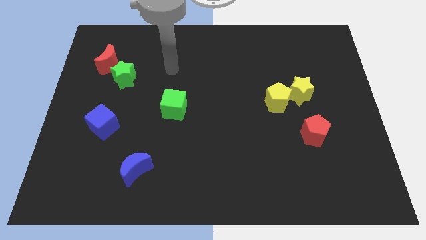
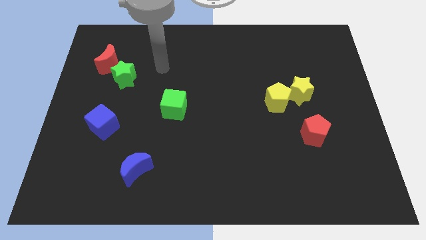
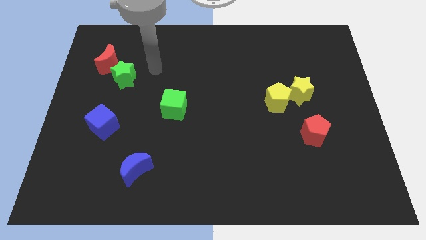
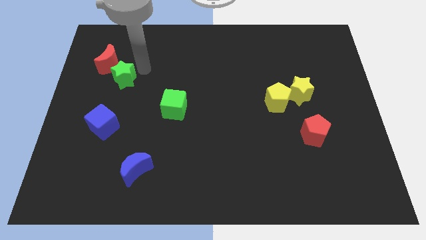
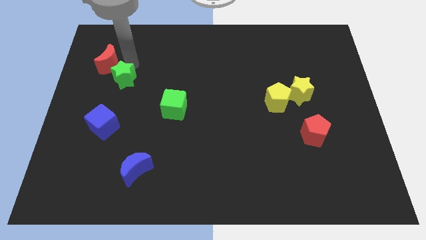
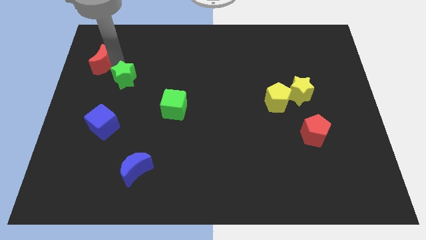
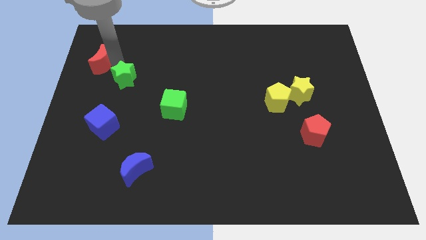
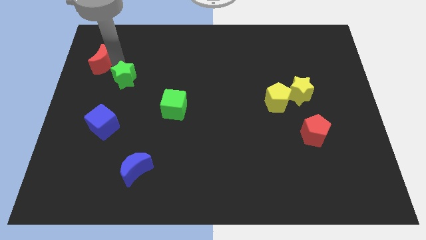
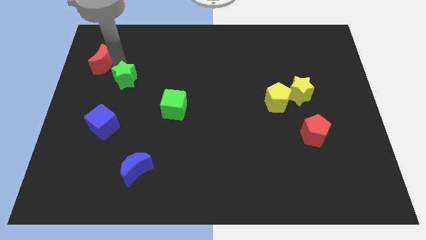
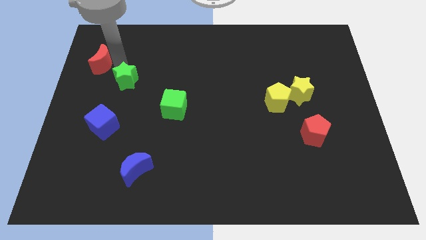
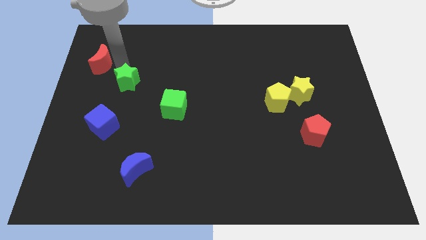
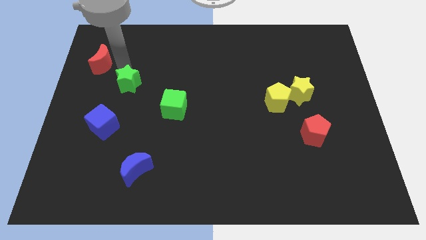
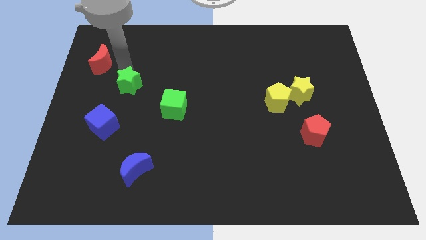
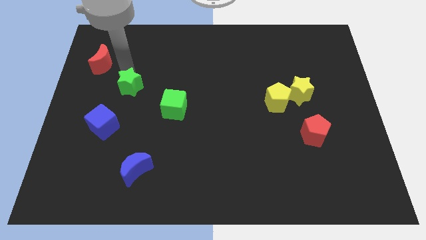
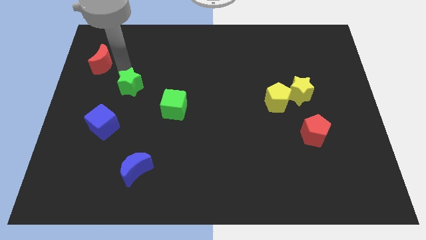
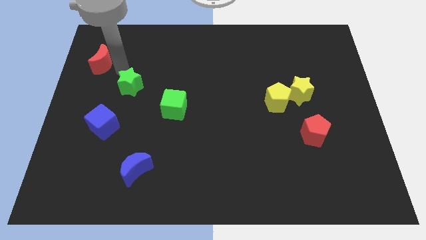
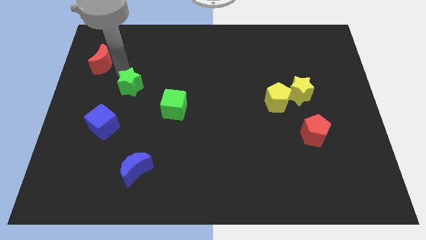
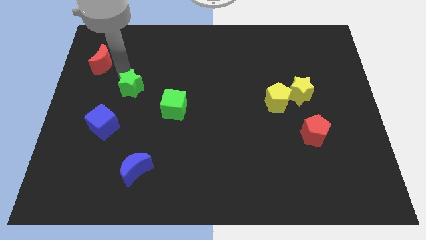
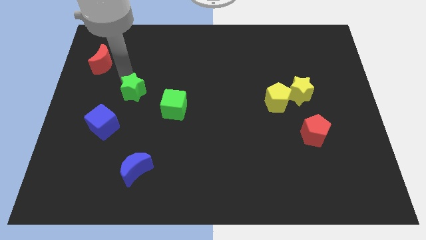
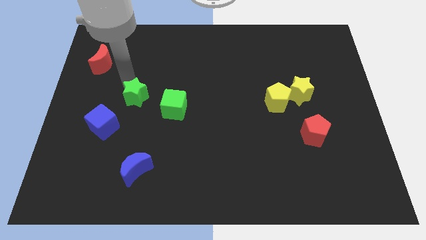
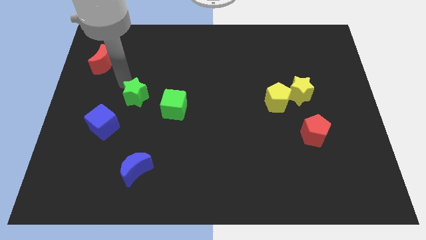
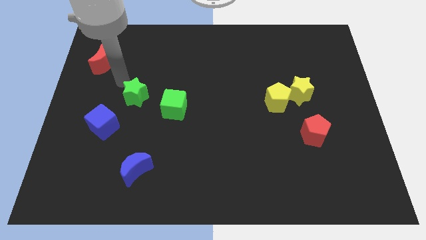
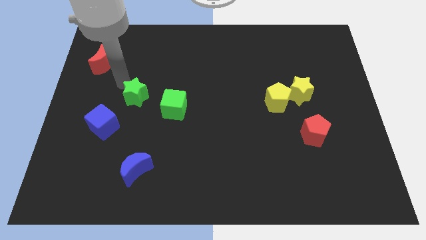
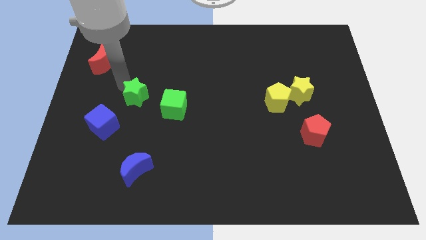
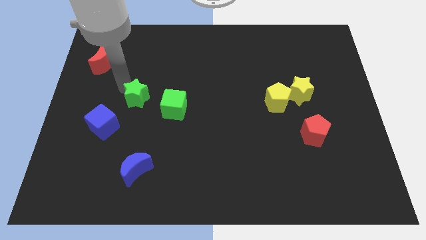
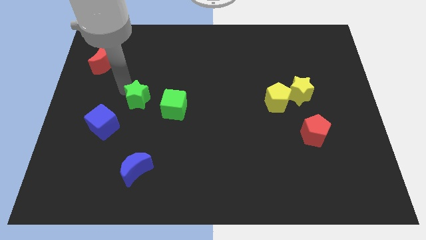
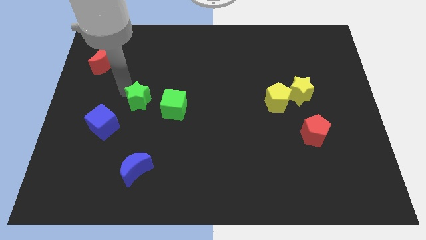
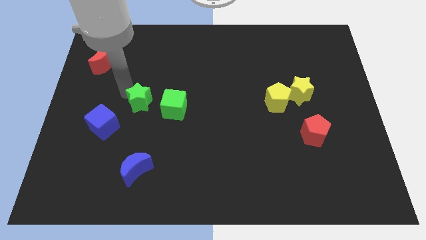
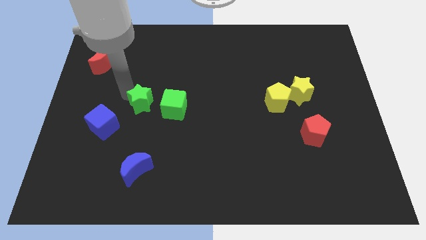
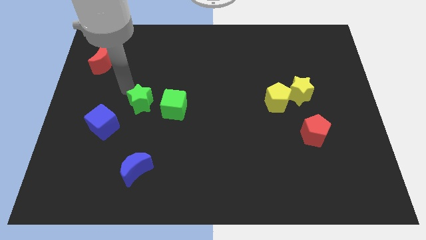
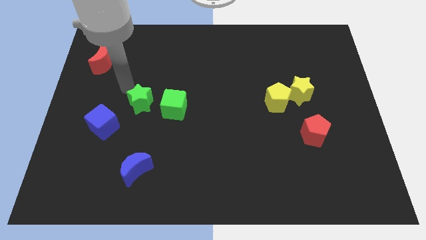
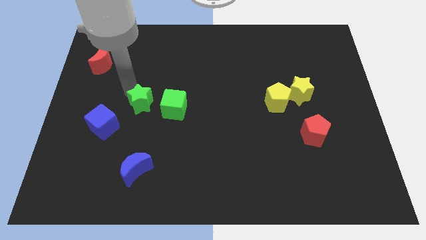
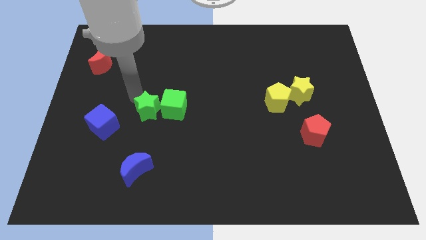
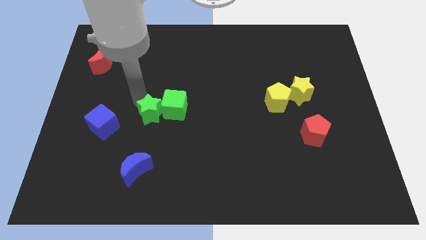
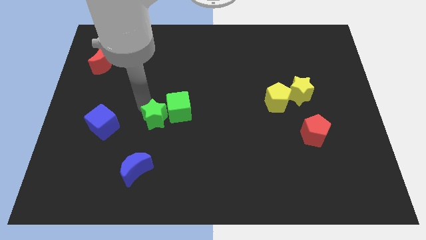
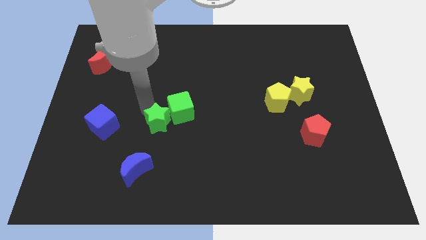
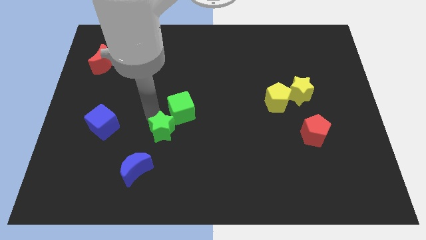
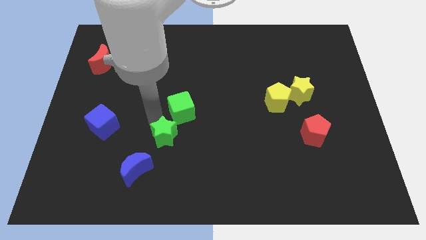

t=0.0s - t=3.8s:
slide the green star downwards and right

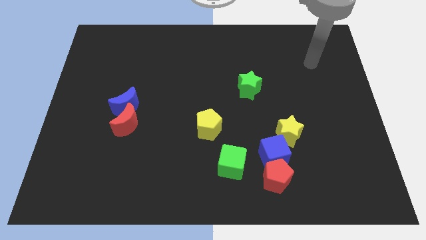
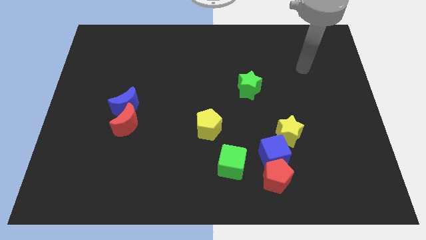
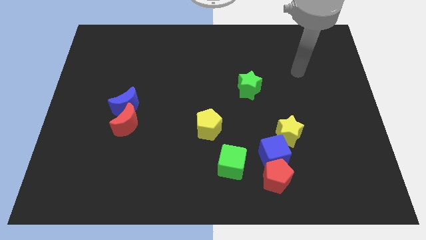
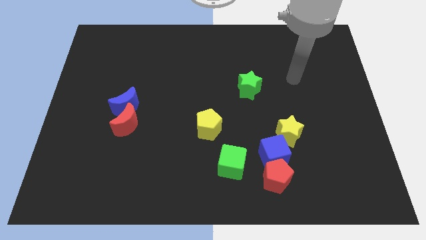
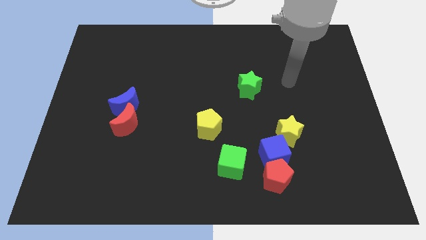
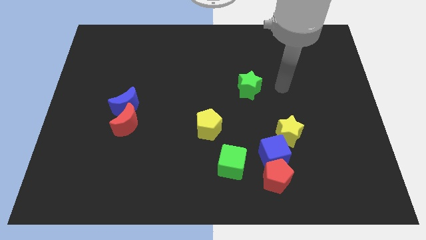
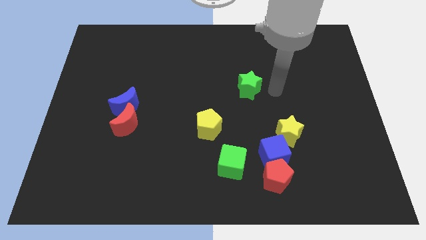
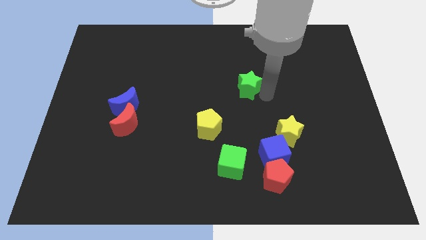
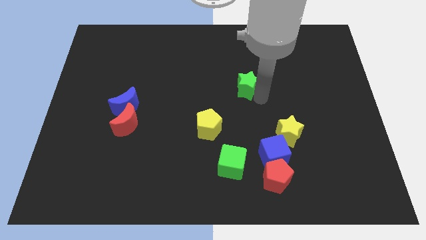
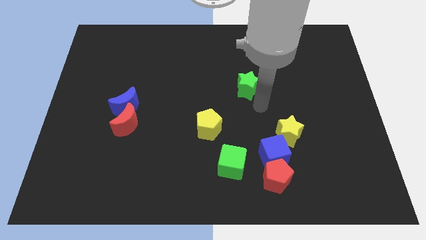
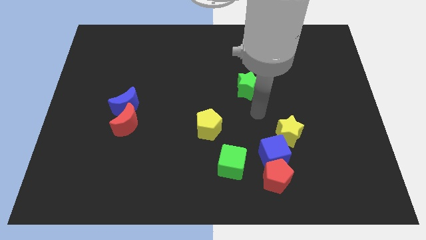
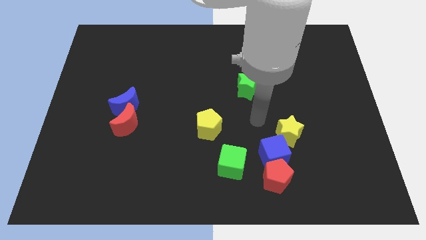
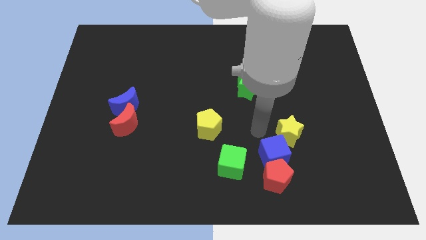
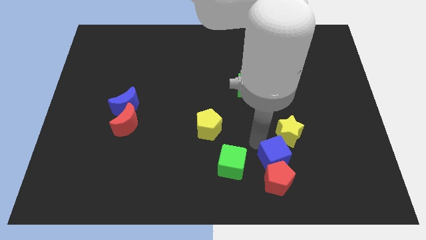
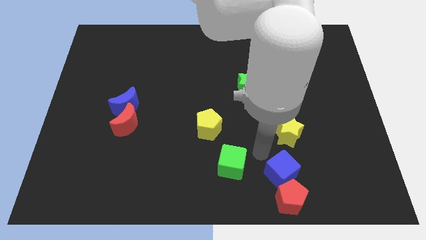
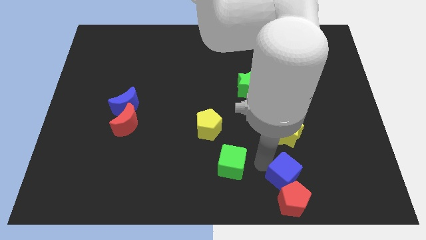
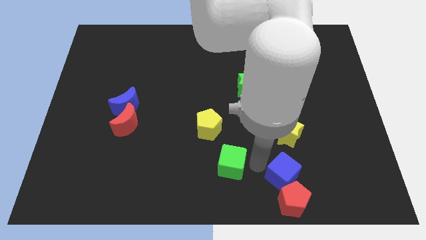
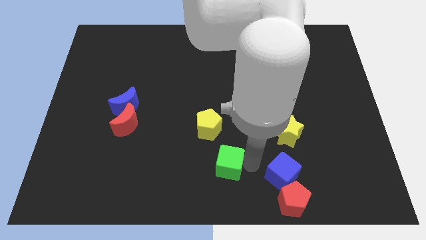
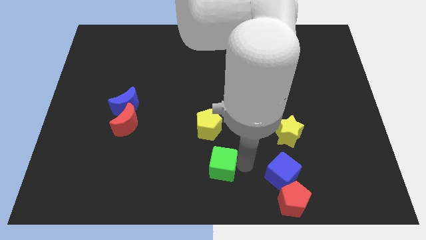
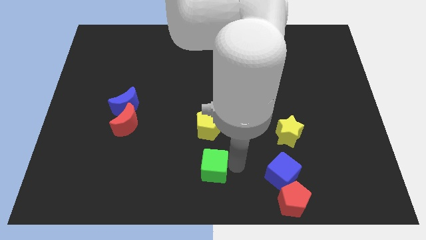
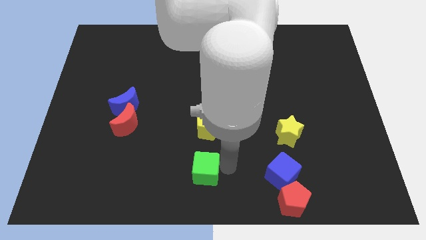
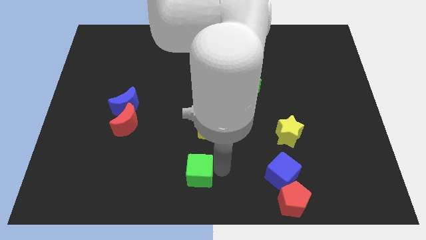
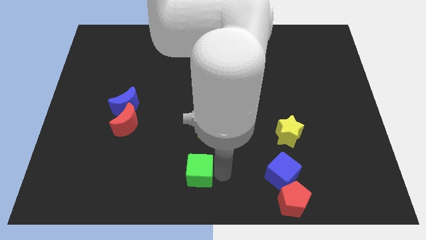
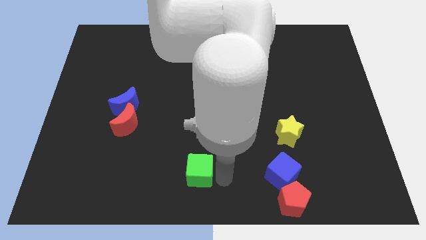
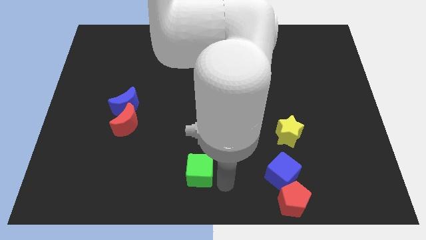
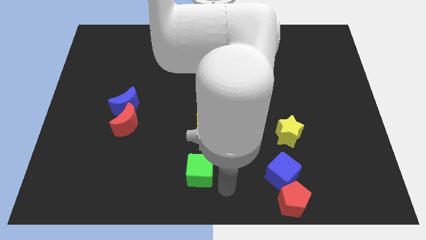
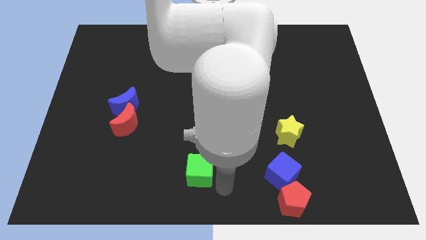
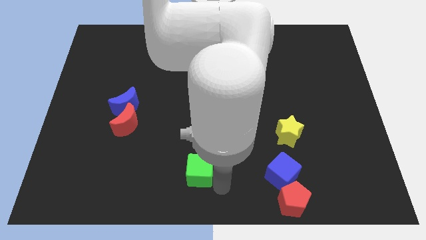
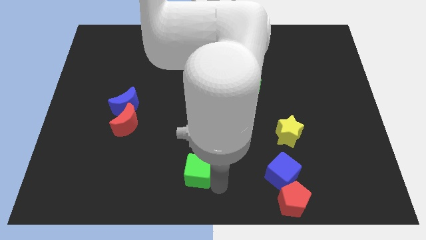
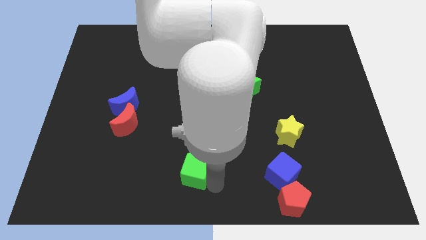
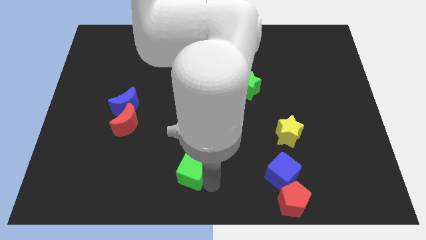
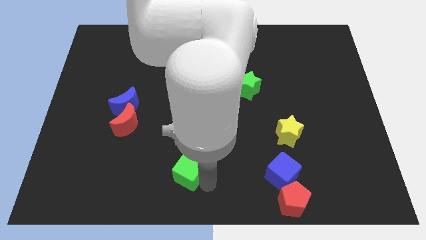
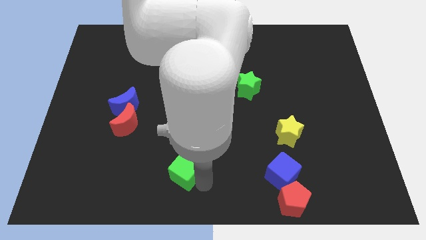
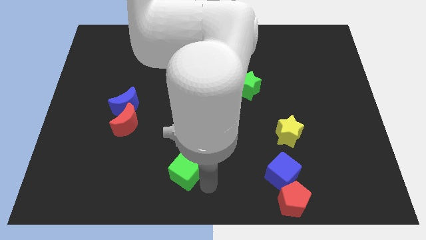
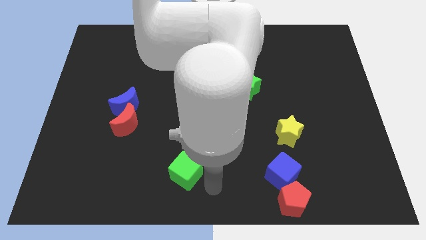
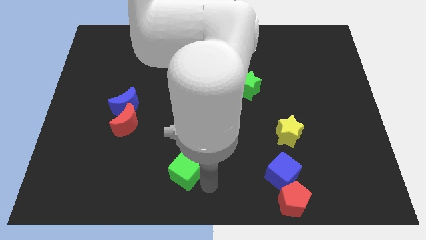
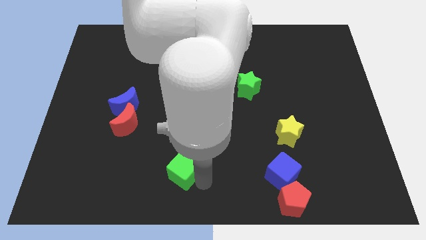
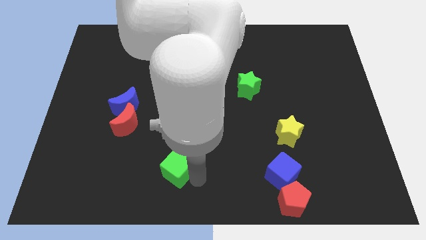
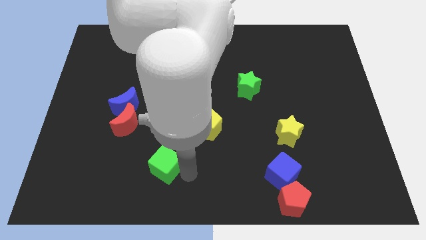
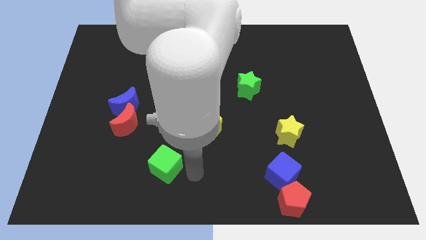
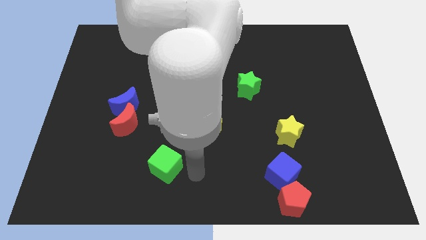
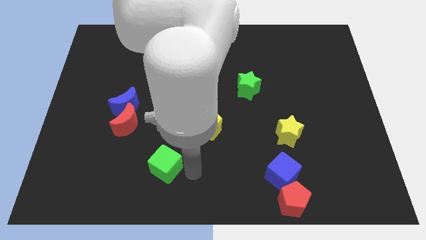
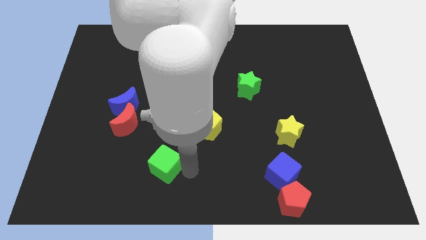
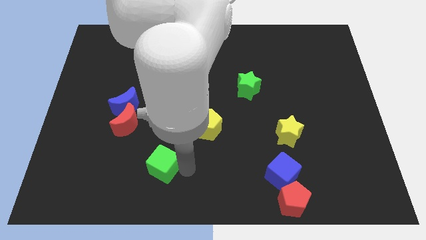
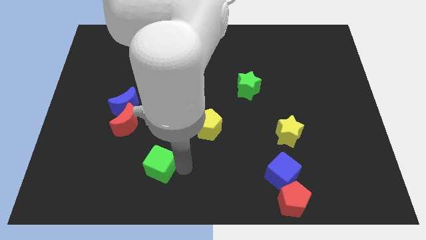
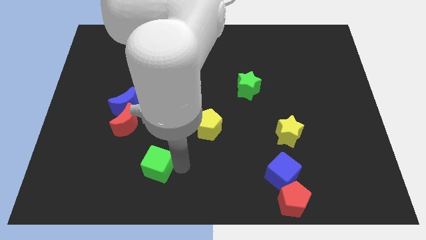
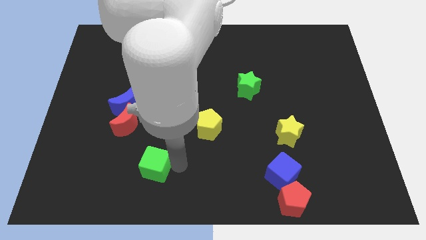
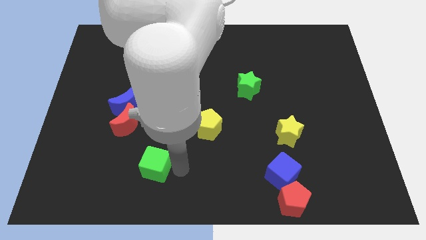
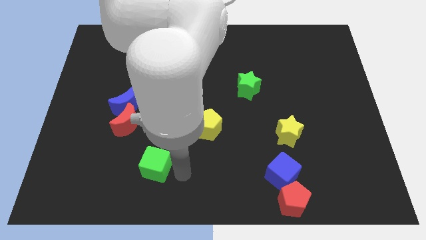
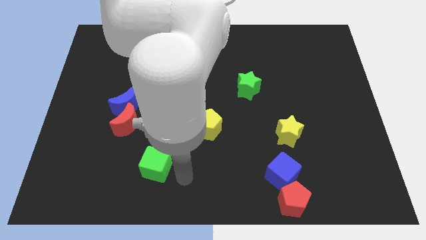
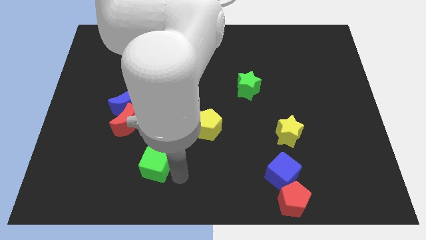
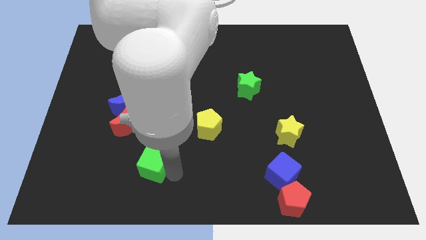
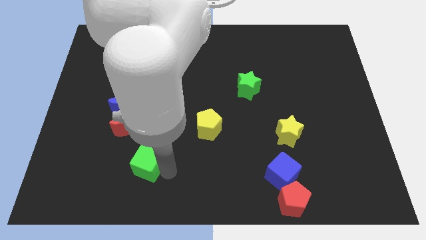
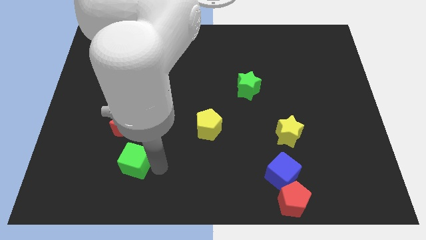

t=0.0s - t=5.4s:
move the green cube left
